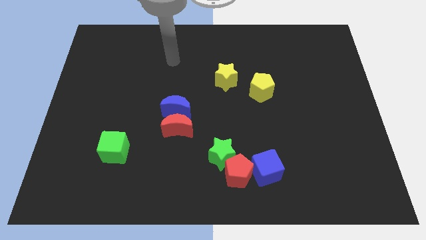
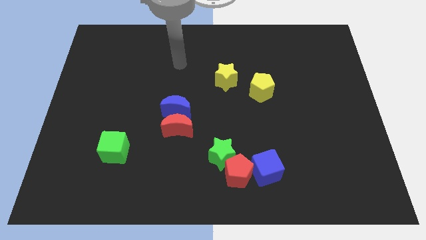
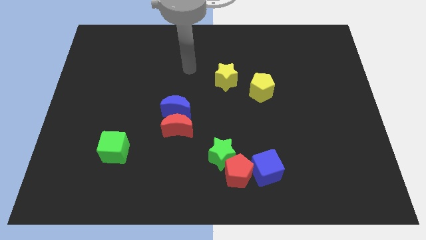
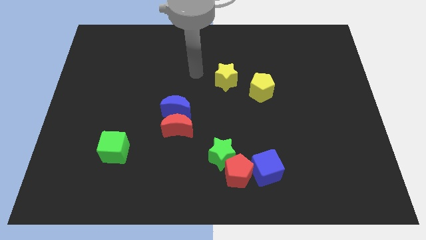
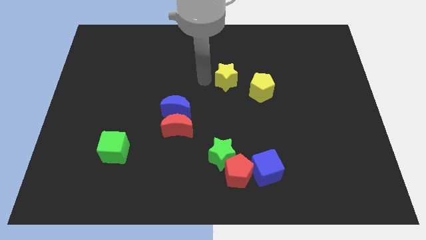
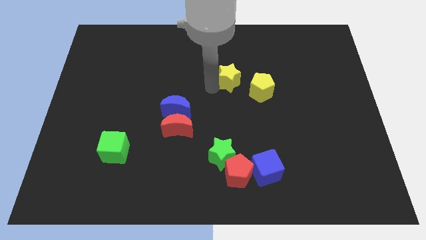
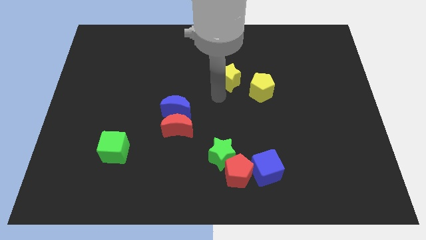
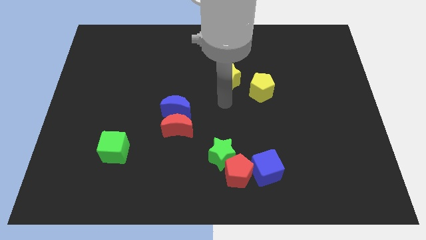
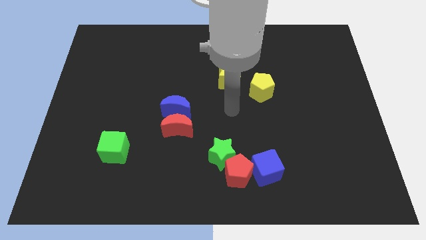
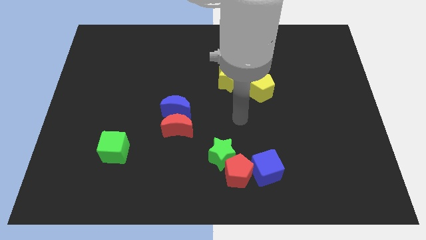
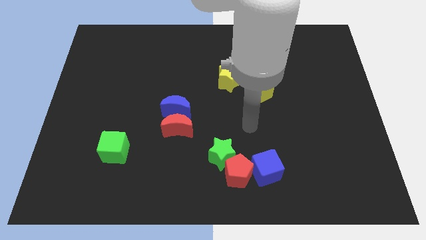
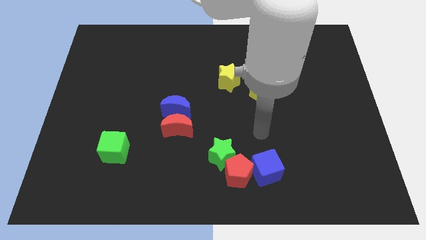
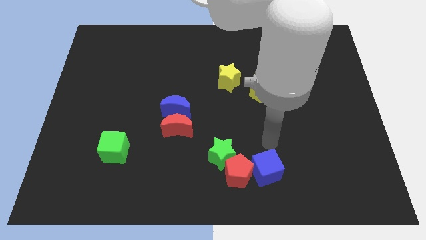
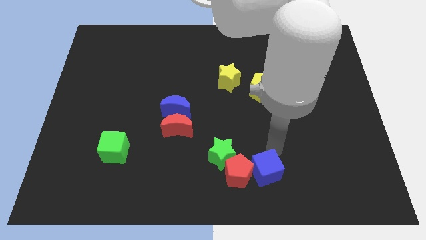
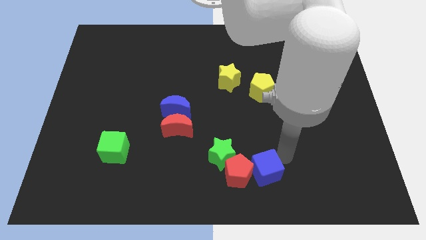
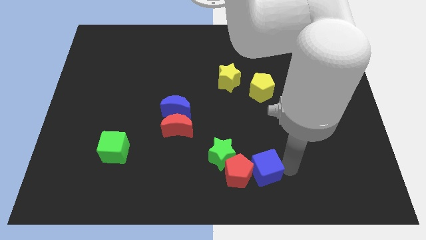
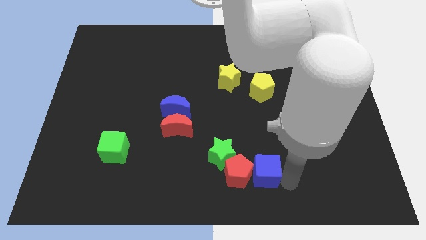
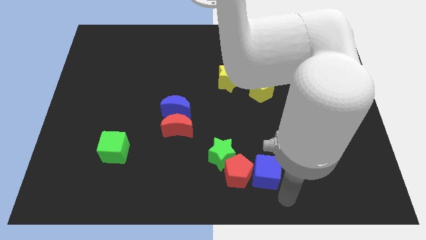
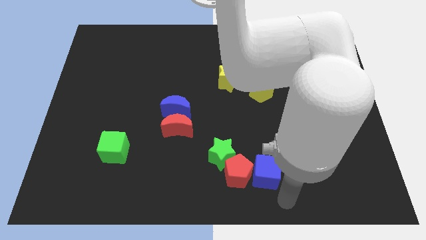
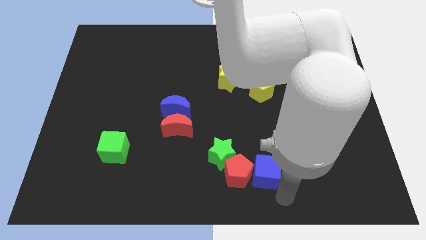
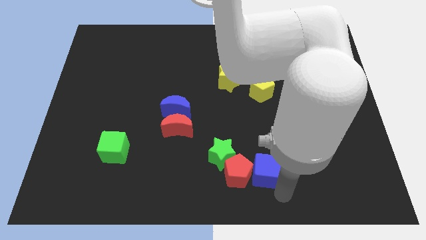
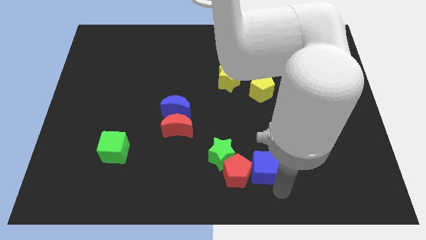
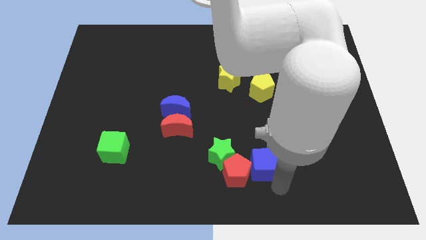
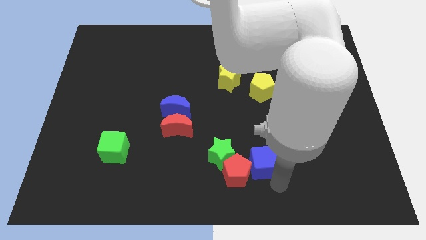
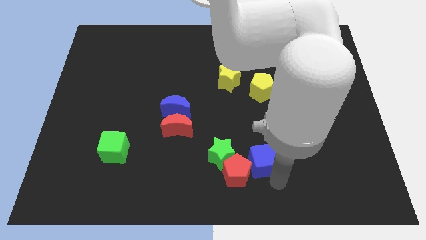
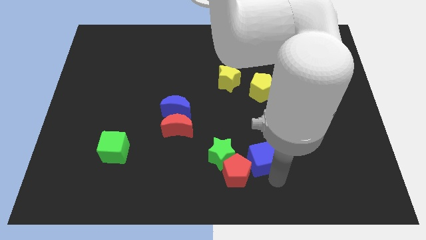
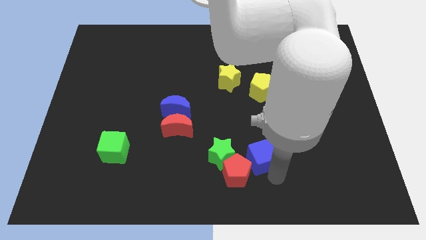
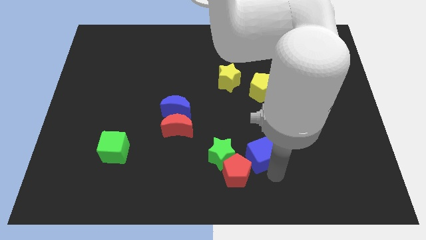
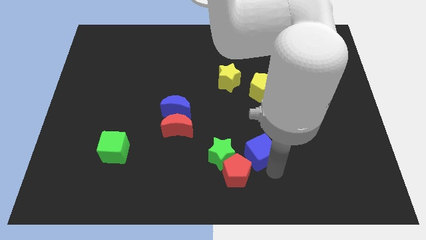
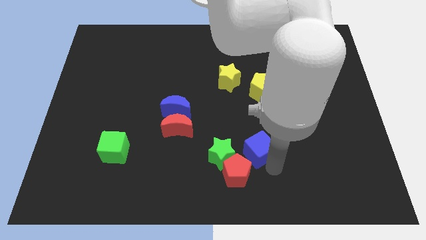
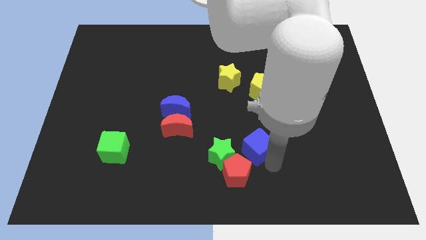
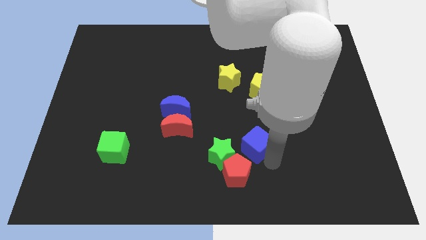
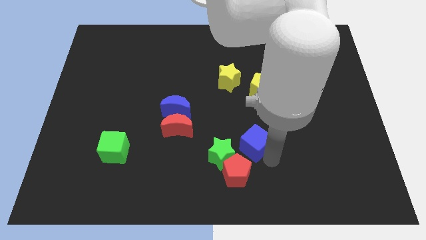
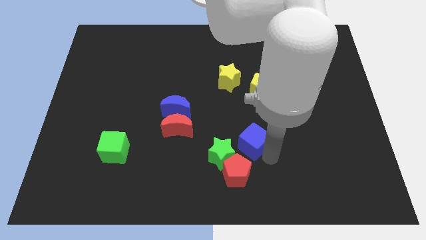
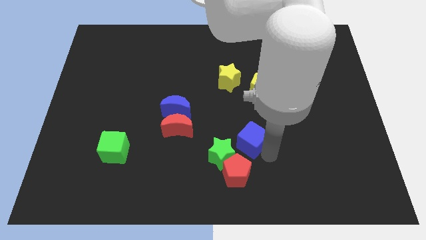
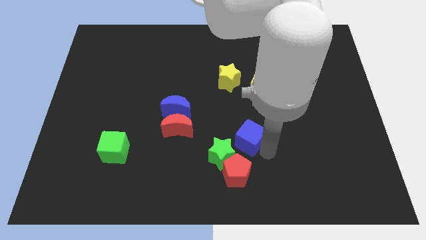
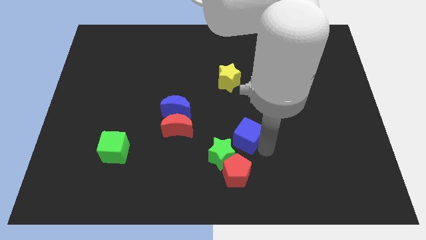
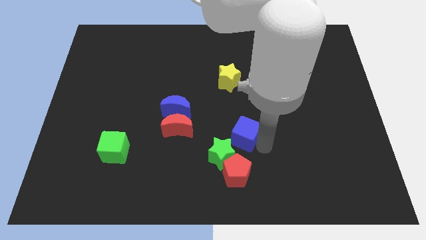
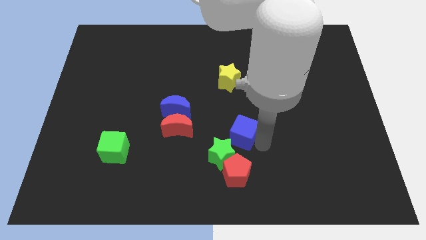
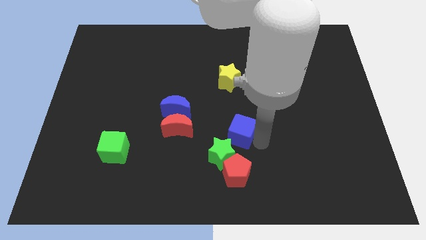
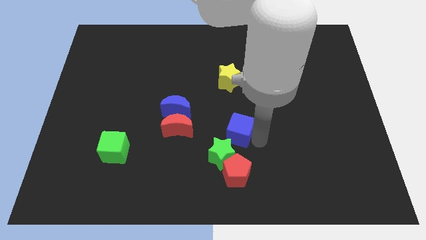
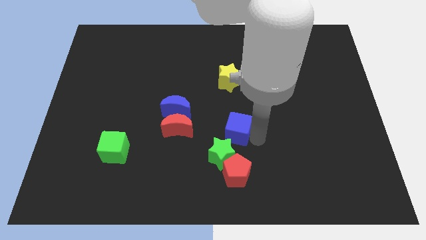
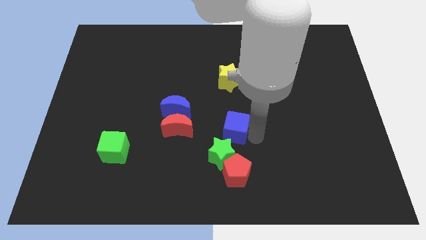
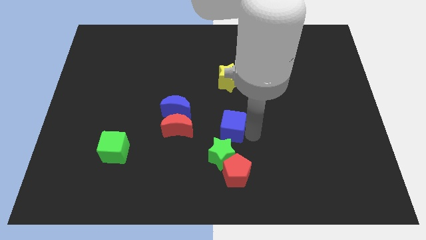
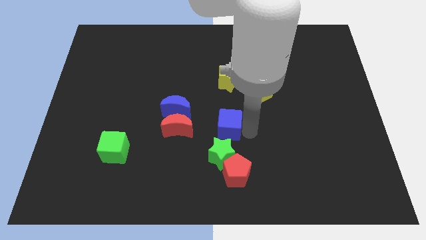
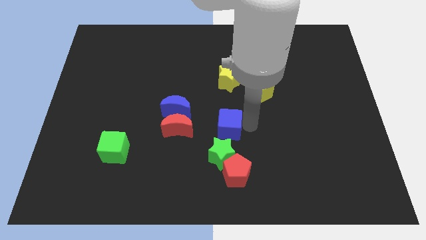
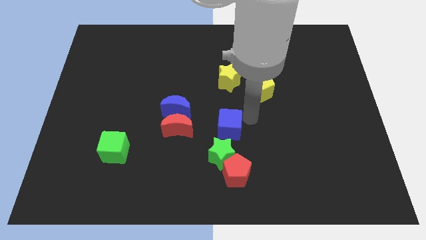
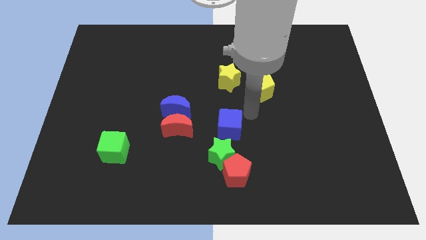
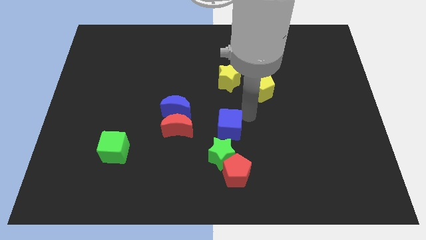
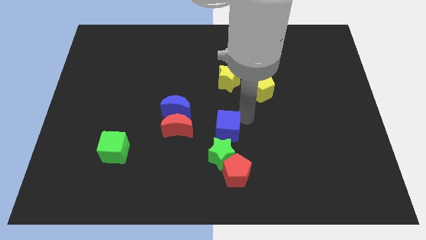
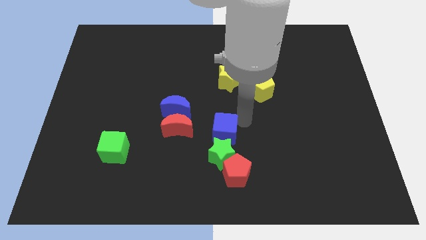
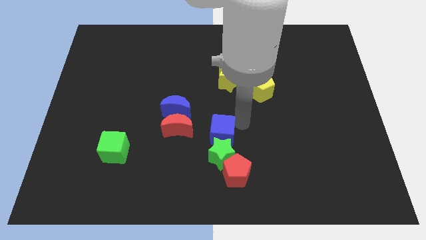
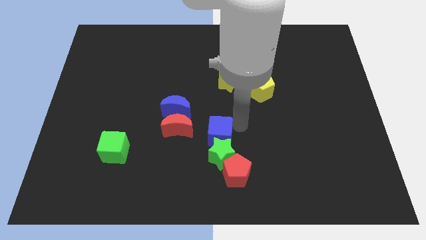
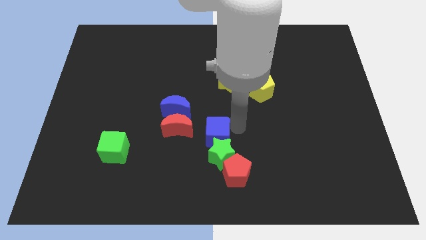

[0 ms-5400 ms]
move the blue cube diagonally down and to the right of the red moon
